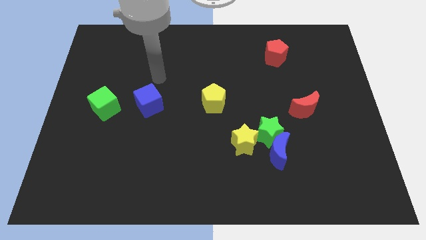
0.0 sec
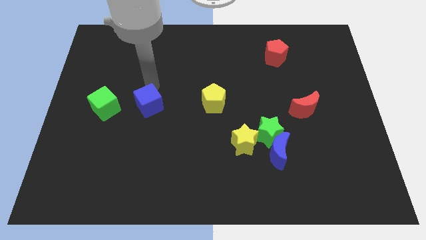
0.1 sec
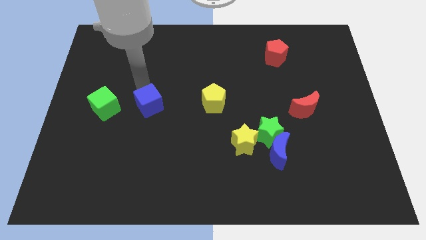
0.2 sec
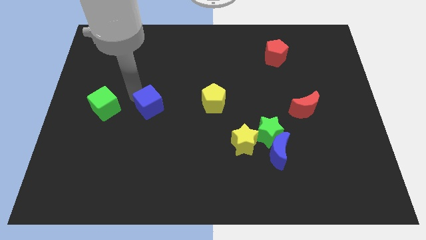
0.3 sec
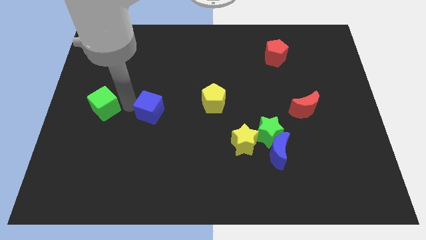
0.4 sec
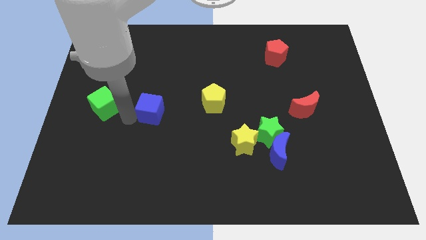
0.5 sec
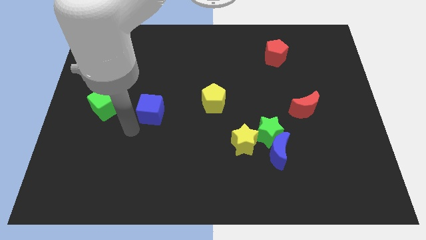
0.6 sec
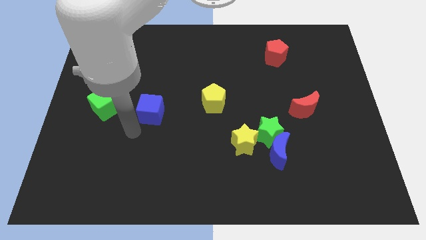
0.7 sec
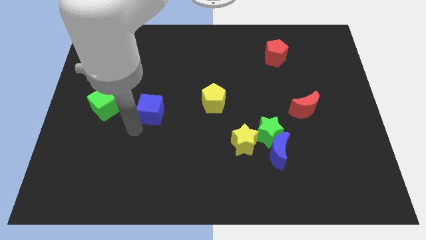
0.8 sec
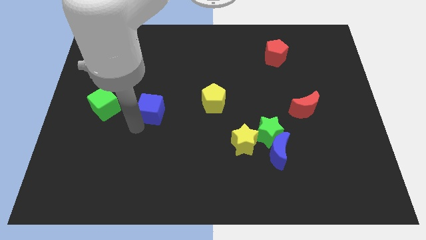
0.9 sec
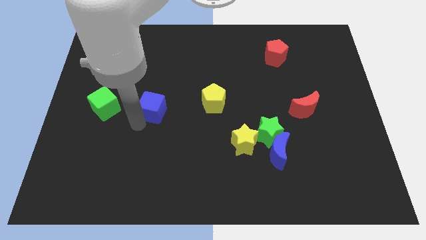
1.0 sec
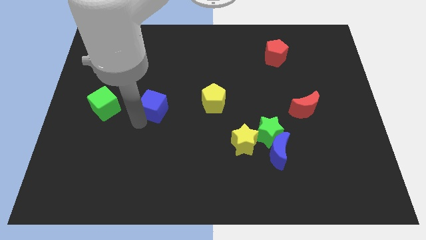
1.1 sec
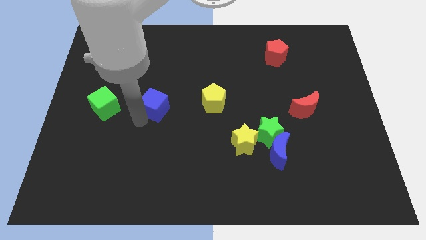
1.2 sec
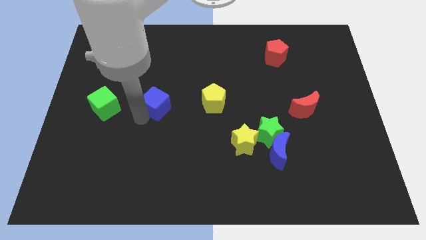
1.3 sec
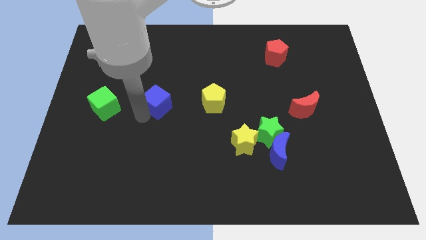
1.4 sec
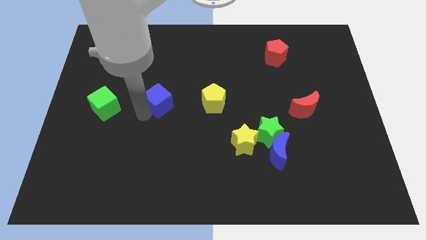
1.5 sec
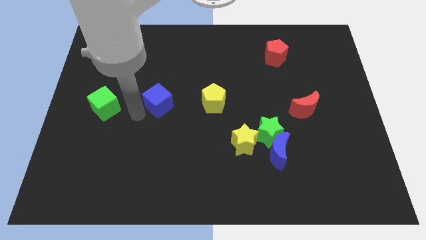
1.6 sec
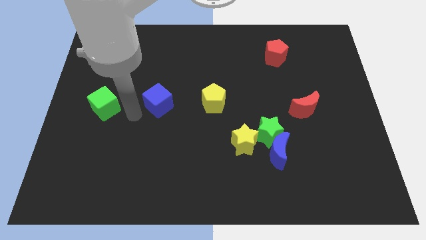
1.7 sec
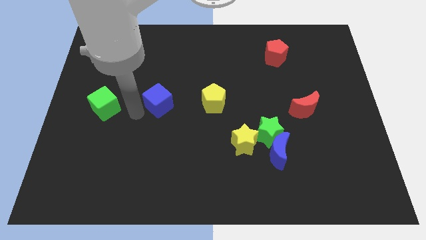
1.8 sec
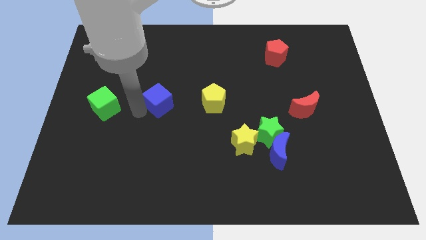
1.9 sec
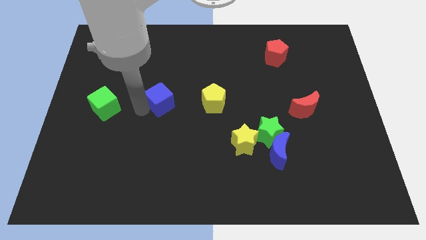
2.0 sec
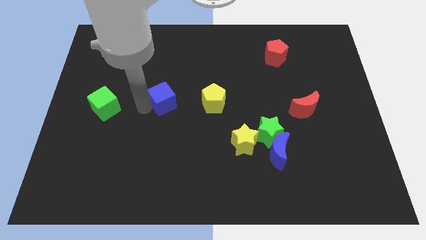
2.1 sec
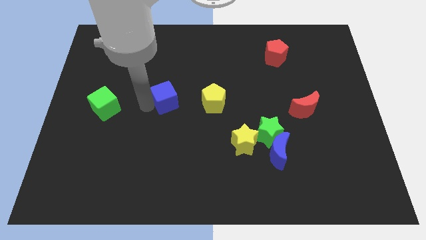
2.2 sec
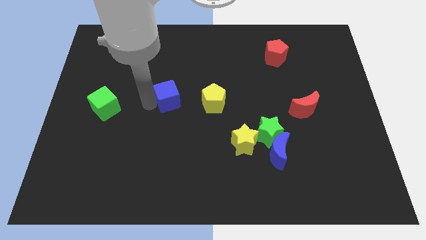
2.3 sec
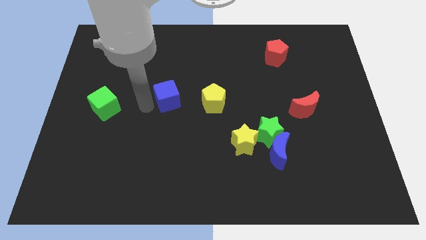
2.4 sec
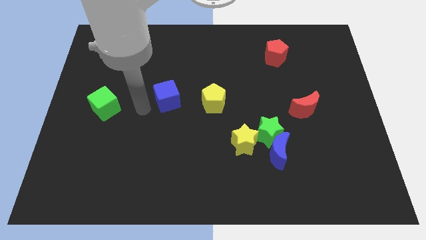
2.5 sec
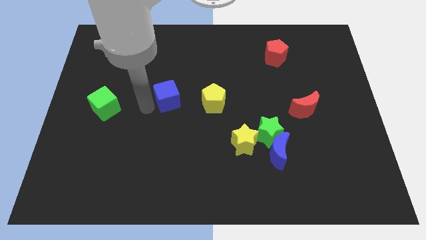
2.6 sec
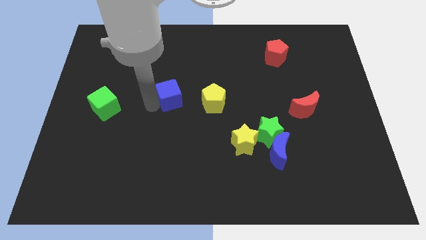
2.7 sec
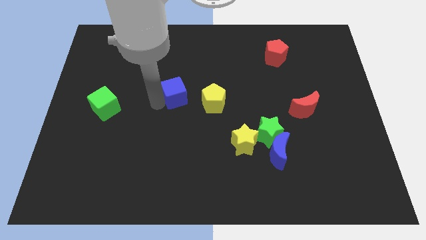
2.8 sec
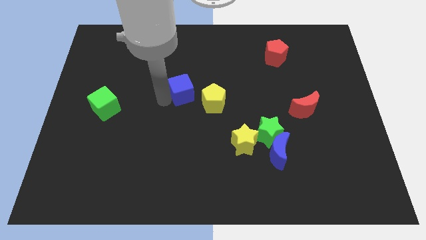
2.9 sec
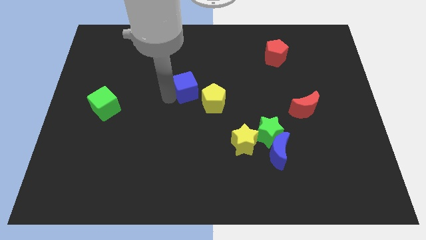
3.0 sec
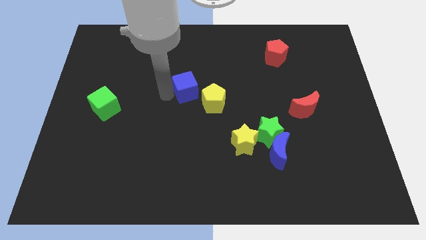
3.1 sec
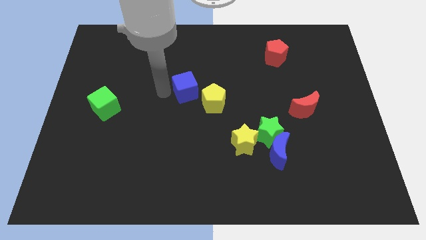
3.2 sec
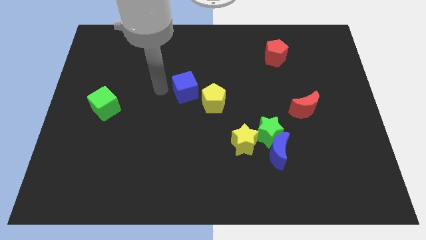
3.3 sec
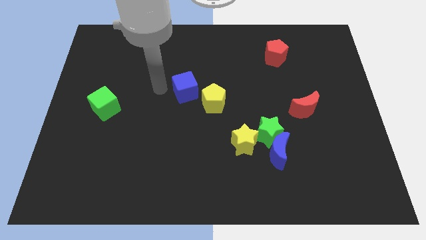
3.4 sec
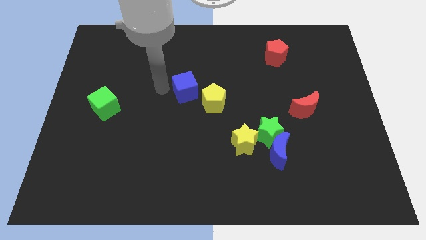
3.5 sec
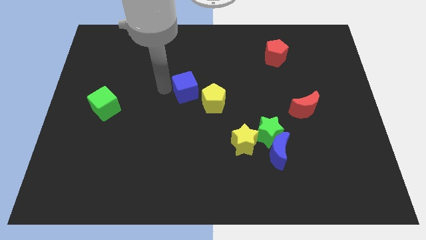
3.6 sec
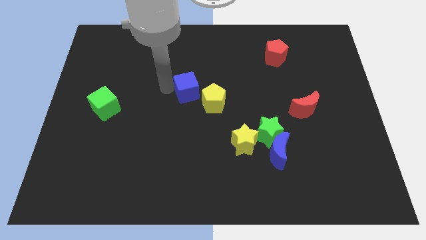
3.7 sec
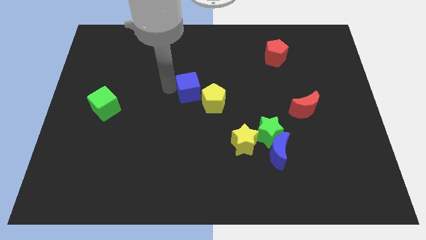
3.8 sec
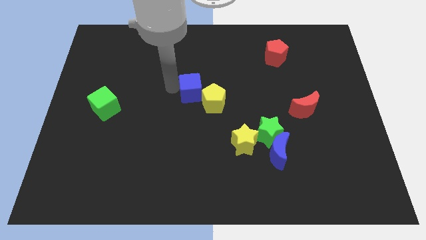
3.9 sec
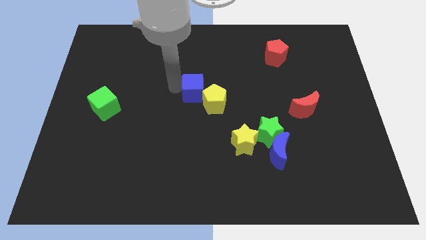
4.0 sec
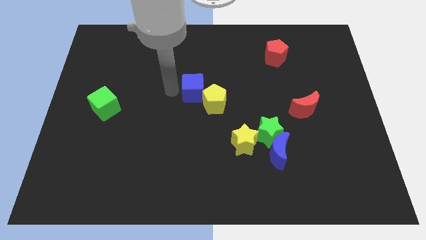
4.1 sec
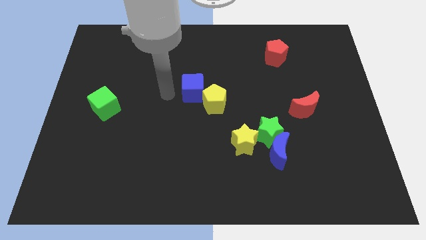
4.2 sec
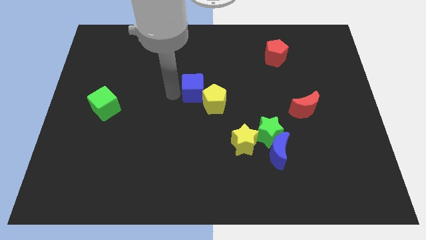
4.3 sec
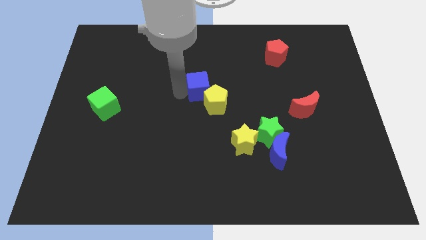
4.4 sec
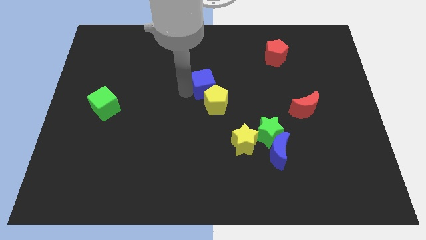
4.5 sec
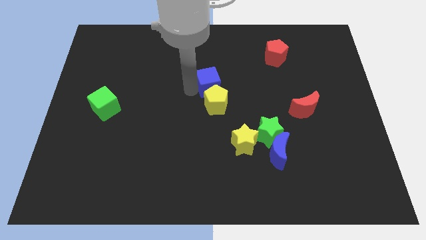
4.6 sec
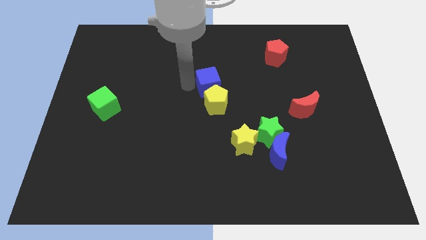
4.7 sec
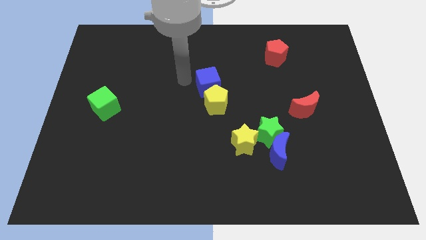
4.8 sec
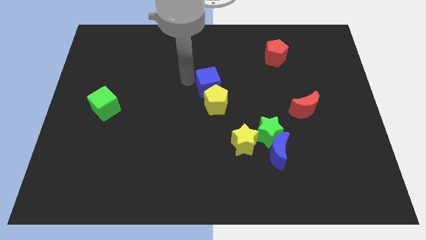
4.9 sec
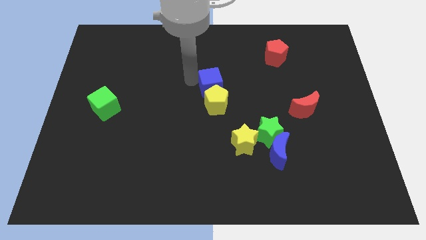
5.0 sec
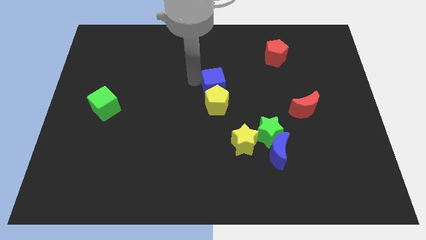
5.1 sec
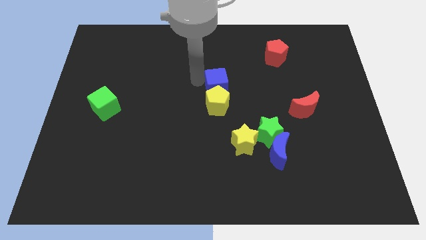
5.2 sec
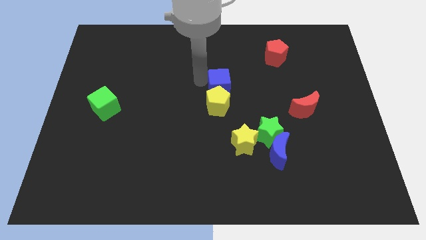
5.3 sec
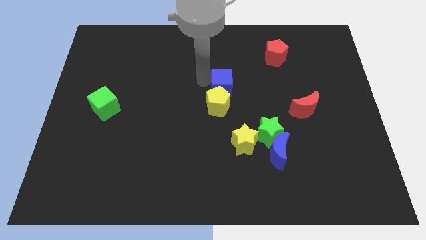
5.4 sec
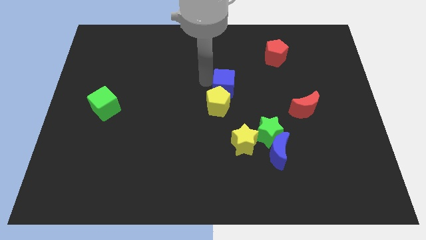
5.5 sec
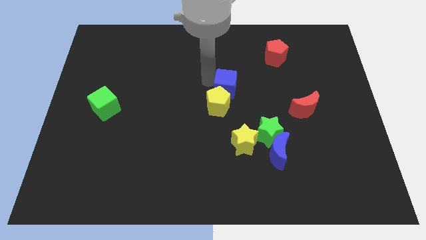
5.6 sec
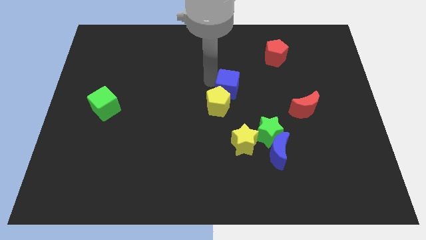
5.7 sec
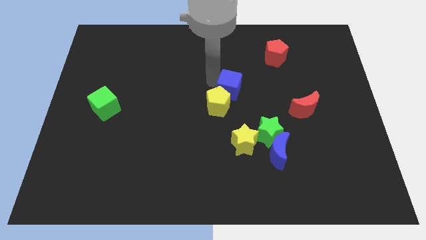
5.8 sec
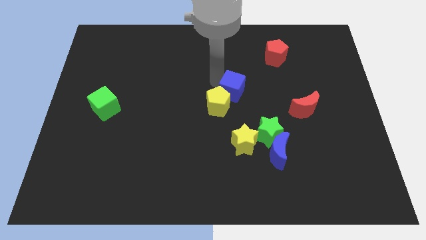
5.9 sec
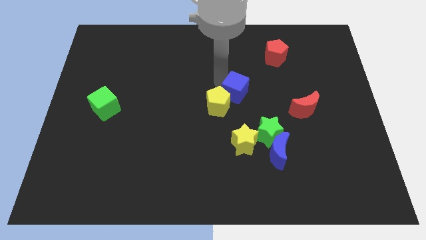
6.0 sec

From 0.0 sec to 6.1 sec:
move the blue cube right

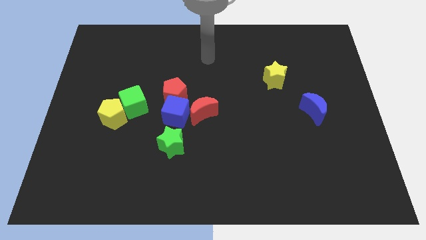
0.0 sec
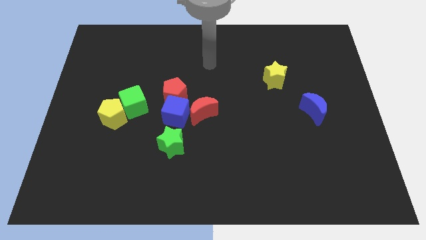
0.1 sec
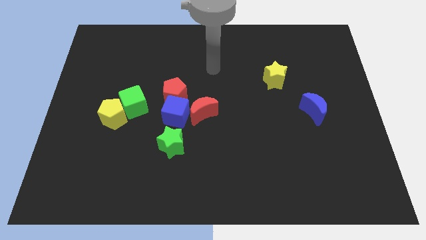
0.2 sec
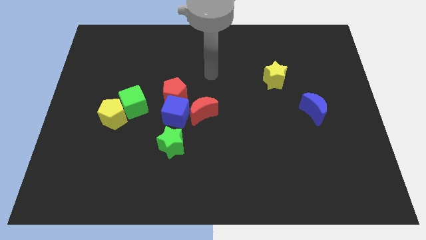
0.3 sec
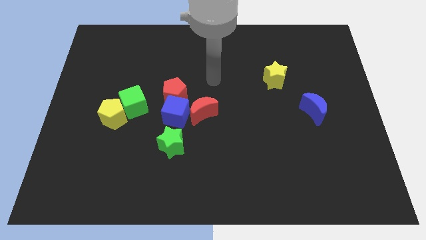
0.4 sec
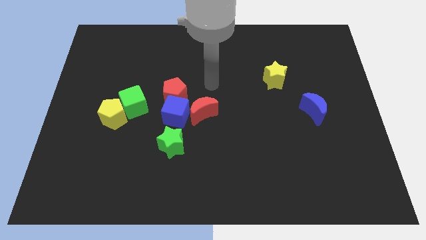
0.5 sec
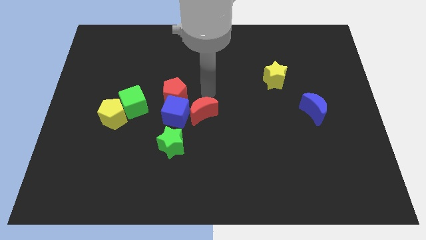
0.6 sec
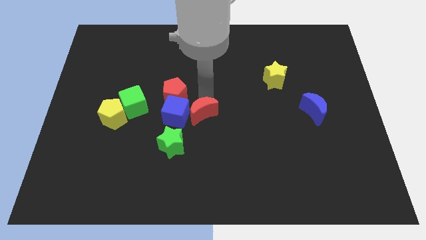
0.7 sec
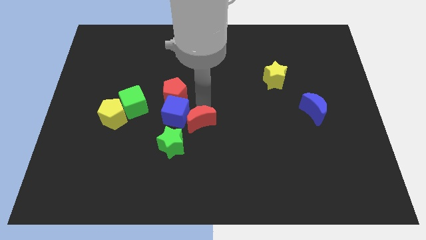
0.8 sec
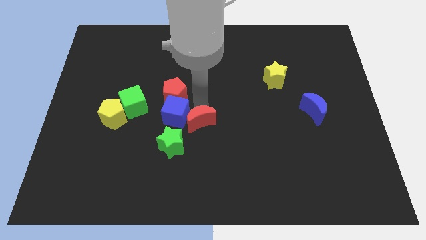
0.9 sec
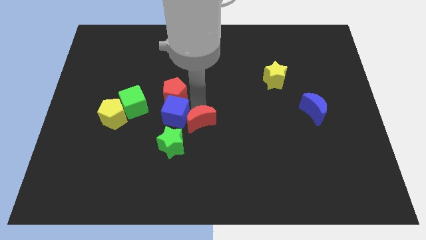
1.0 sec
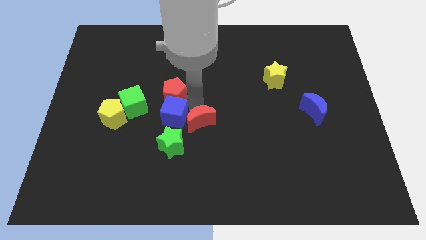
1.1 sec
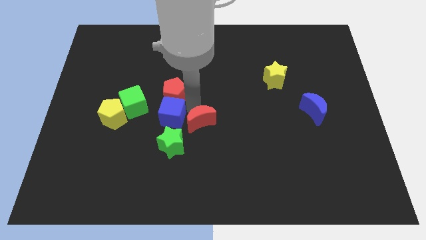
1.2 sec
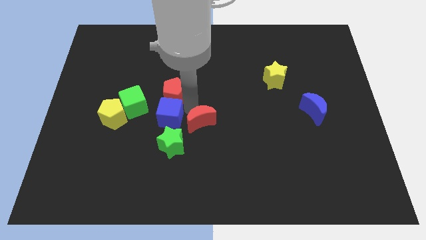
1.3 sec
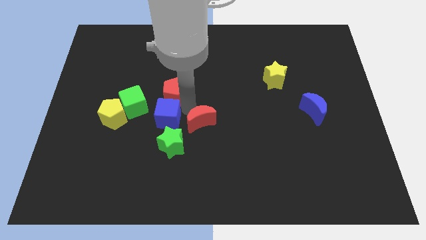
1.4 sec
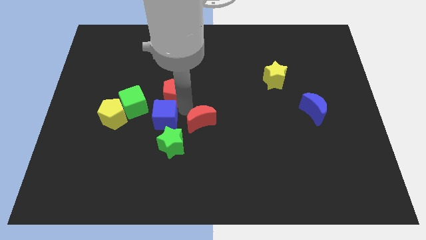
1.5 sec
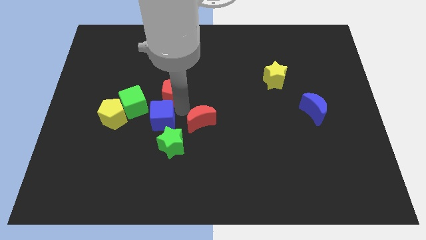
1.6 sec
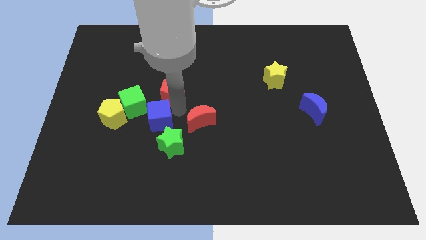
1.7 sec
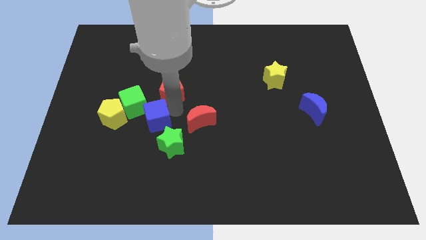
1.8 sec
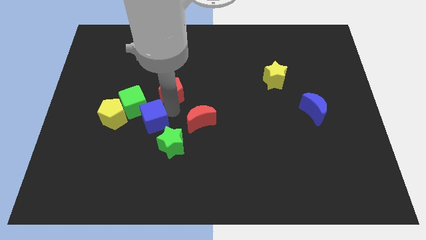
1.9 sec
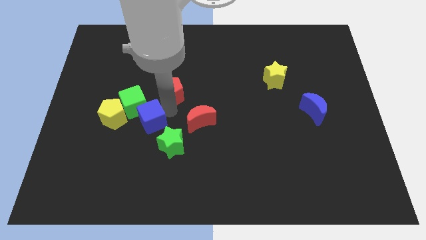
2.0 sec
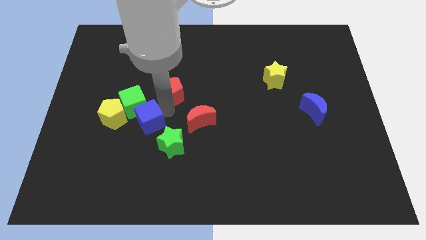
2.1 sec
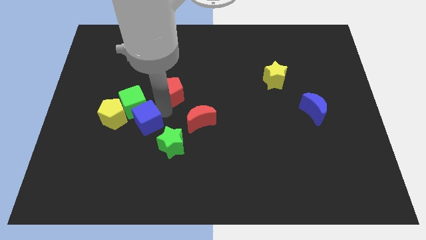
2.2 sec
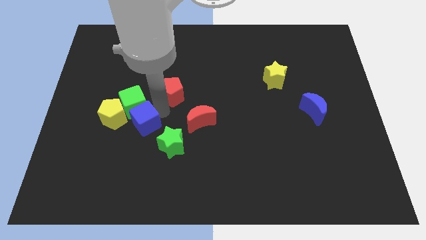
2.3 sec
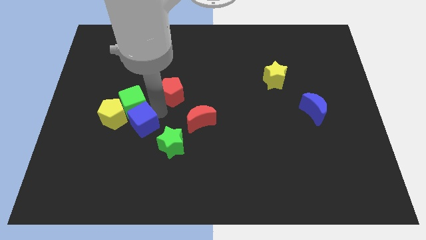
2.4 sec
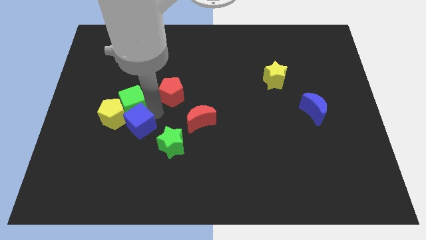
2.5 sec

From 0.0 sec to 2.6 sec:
push the blue cube a bit diagonally downwards and to the left
